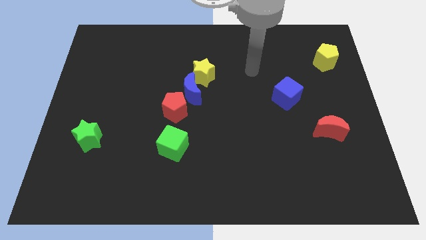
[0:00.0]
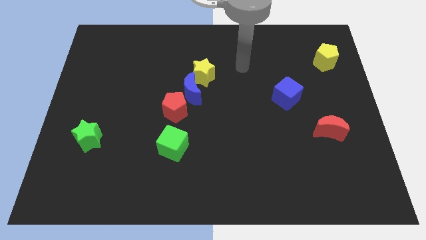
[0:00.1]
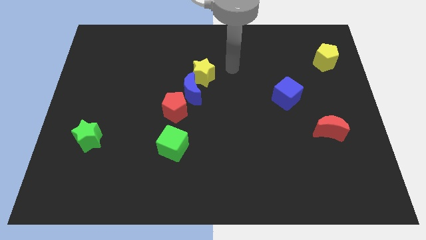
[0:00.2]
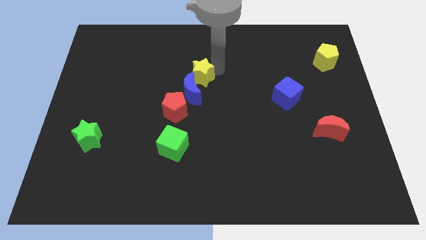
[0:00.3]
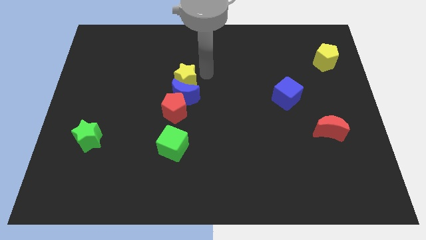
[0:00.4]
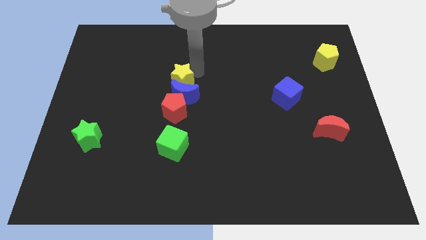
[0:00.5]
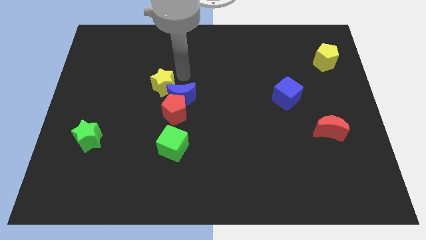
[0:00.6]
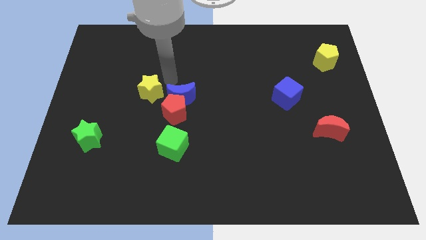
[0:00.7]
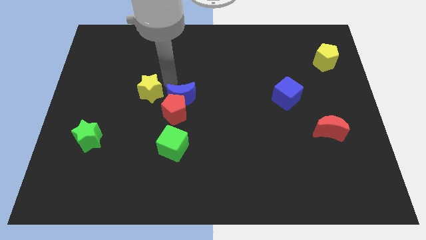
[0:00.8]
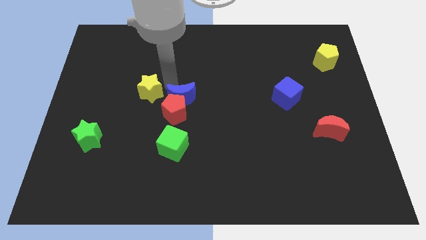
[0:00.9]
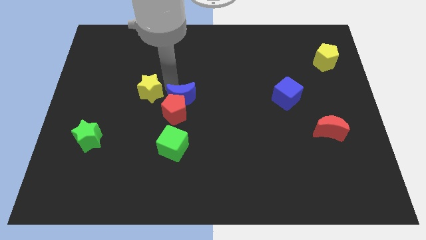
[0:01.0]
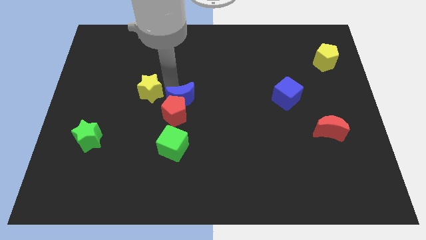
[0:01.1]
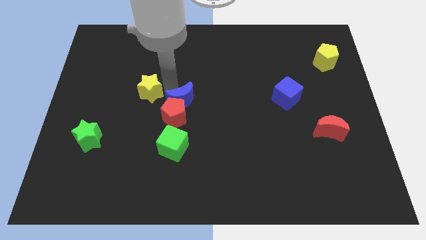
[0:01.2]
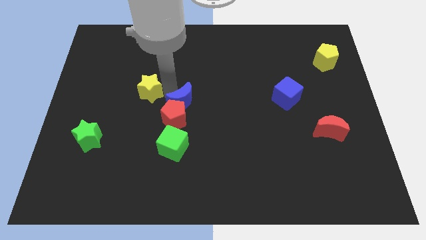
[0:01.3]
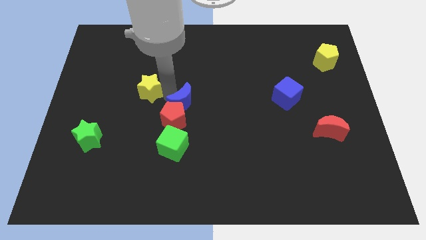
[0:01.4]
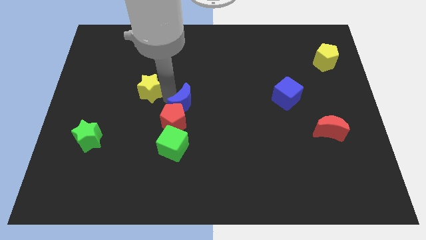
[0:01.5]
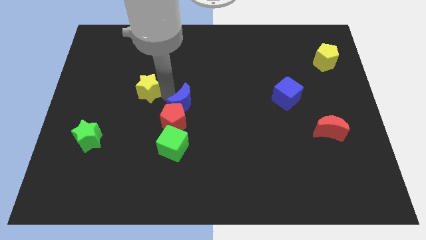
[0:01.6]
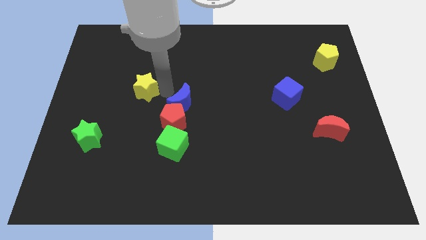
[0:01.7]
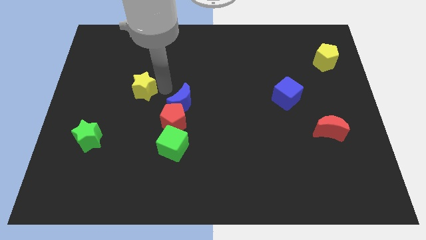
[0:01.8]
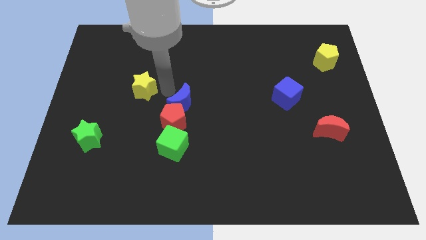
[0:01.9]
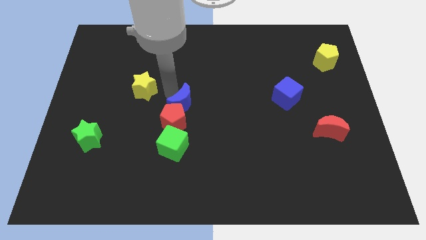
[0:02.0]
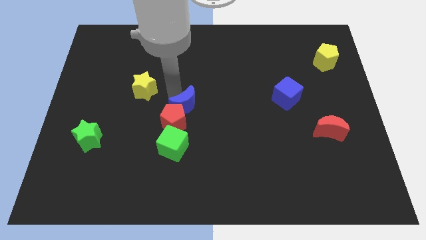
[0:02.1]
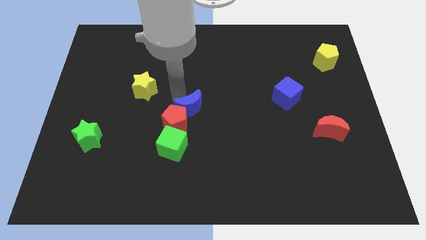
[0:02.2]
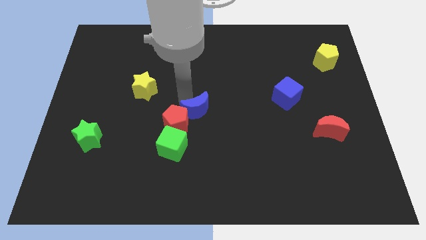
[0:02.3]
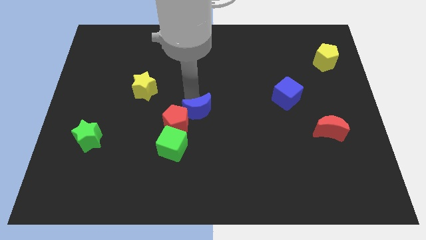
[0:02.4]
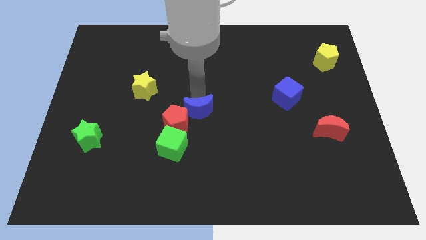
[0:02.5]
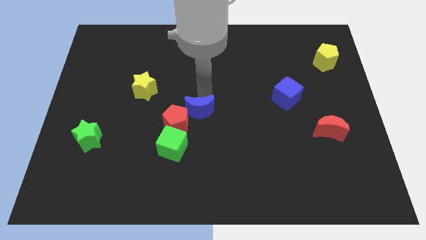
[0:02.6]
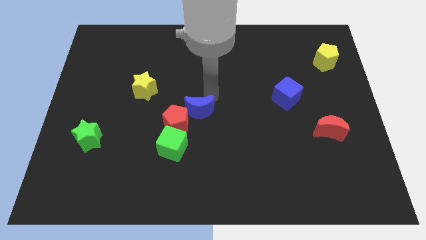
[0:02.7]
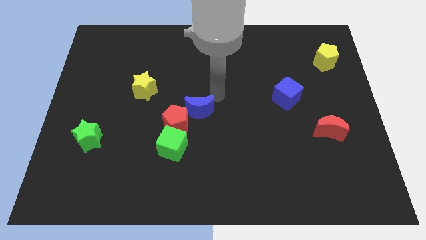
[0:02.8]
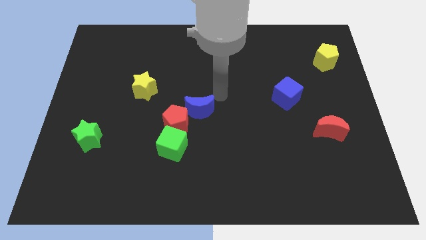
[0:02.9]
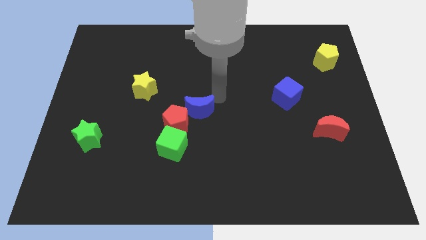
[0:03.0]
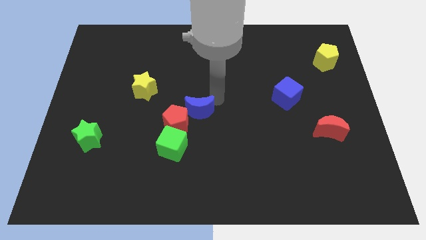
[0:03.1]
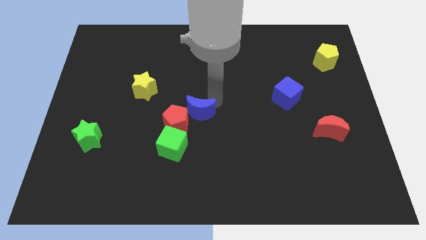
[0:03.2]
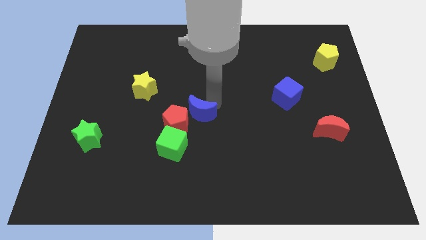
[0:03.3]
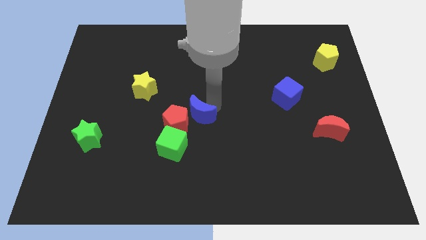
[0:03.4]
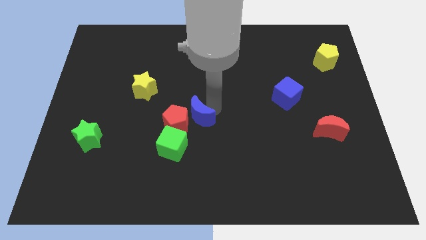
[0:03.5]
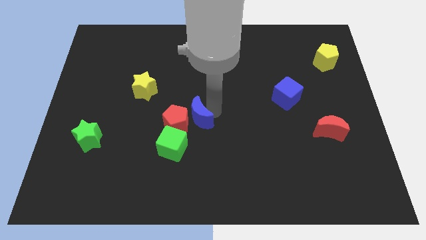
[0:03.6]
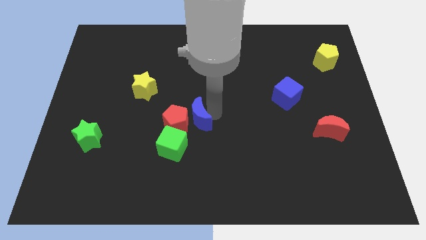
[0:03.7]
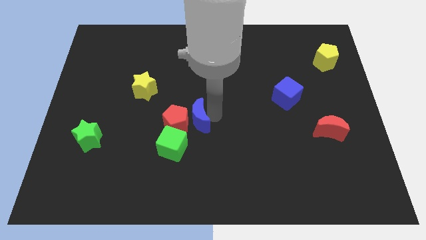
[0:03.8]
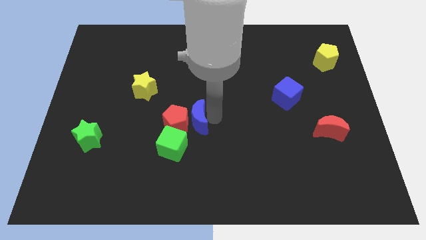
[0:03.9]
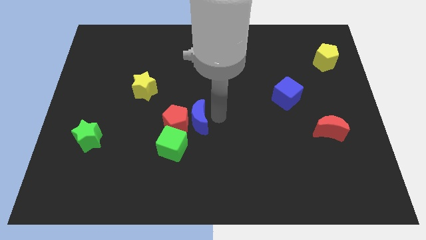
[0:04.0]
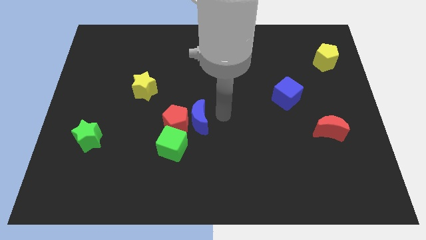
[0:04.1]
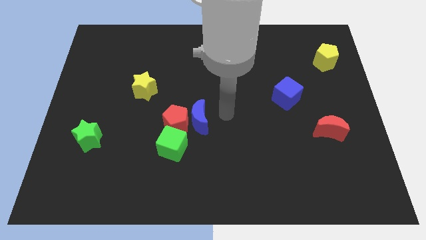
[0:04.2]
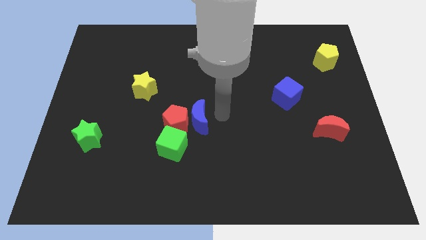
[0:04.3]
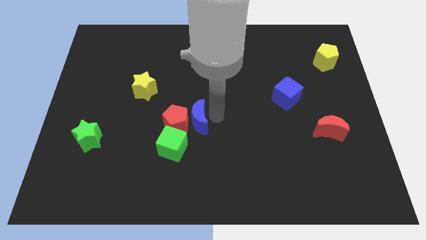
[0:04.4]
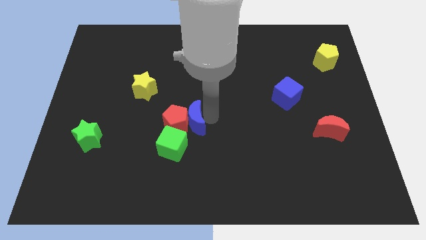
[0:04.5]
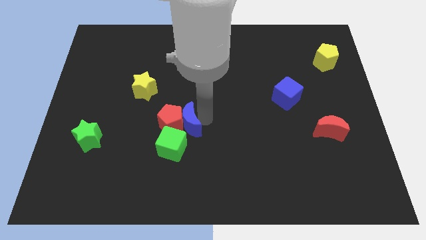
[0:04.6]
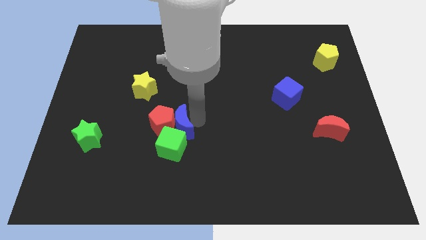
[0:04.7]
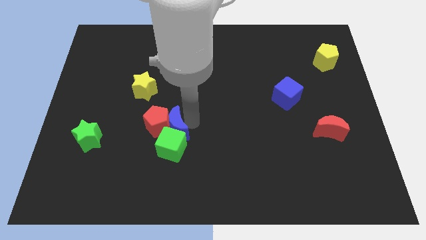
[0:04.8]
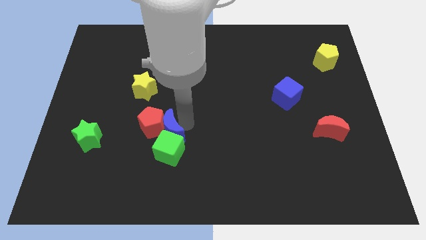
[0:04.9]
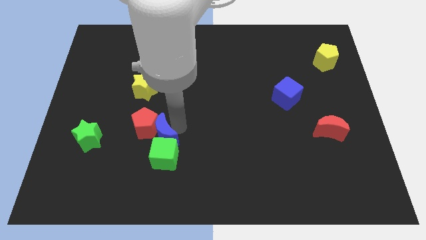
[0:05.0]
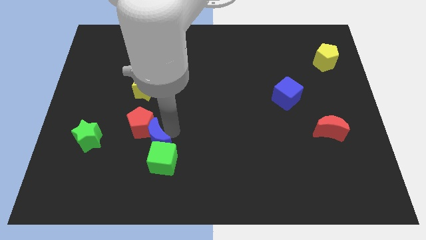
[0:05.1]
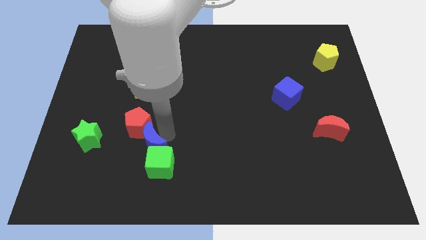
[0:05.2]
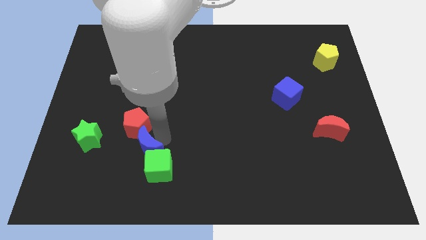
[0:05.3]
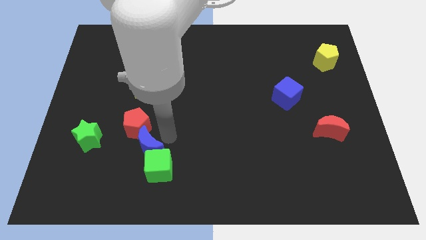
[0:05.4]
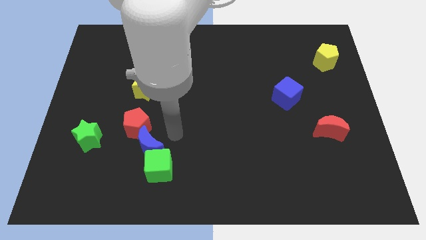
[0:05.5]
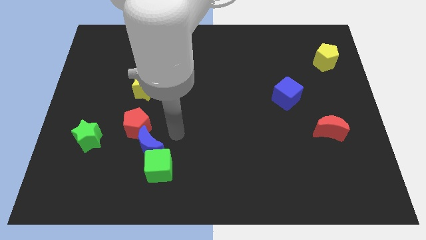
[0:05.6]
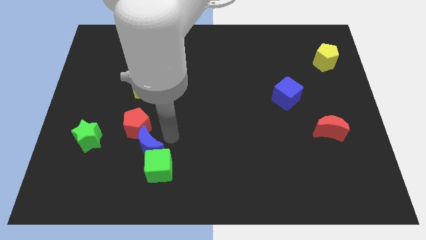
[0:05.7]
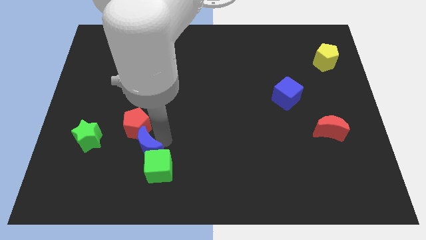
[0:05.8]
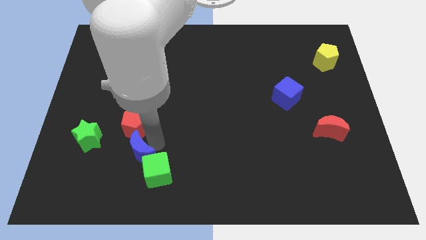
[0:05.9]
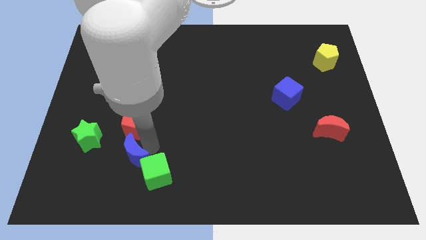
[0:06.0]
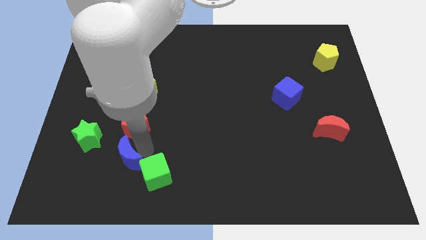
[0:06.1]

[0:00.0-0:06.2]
slide the blue moon downwards and then left

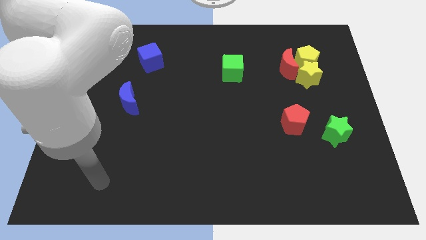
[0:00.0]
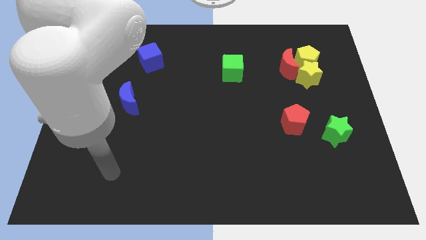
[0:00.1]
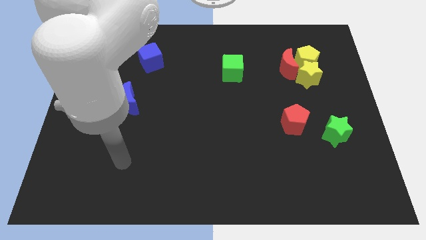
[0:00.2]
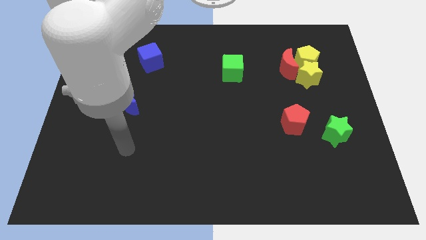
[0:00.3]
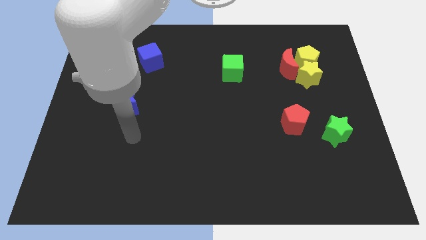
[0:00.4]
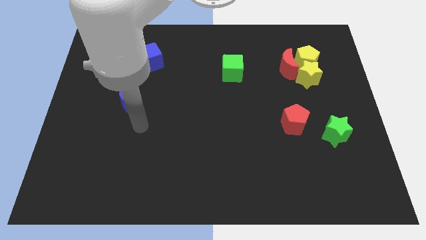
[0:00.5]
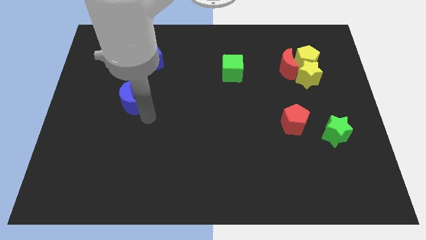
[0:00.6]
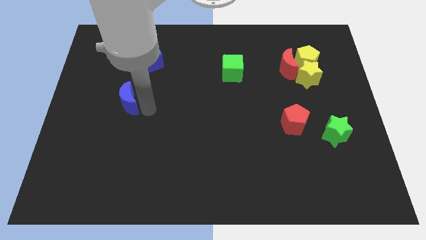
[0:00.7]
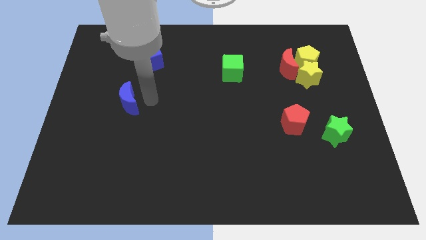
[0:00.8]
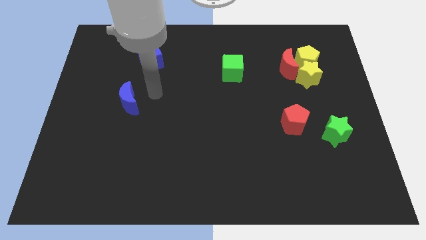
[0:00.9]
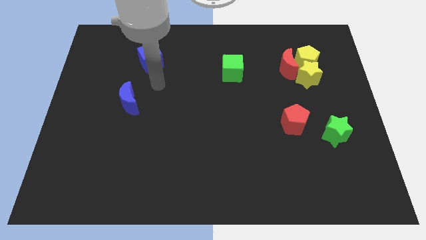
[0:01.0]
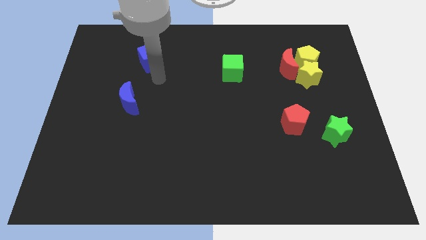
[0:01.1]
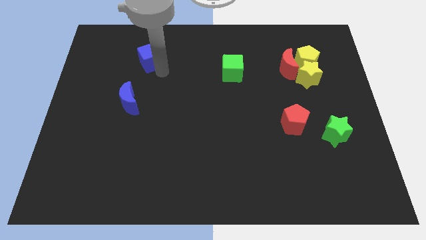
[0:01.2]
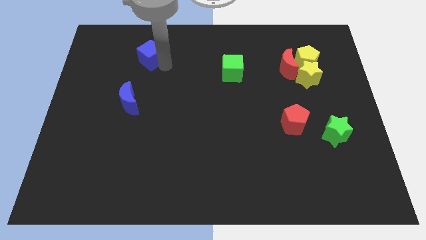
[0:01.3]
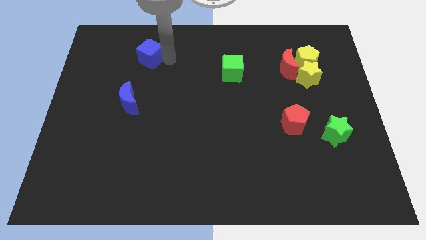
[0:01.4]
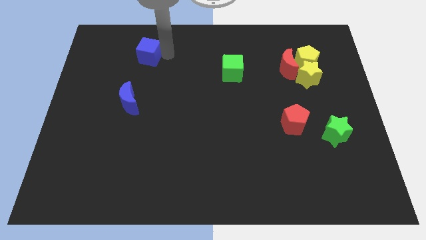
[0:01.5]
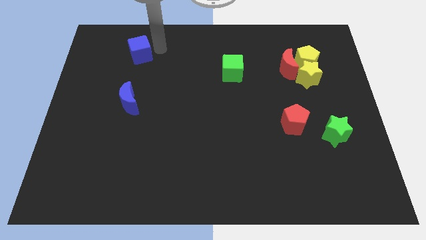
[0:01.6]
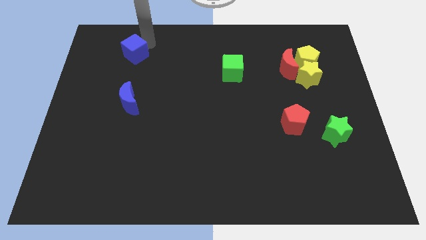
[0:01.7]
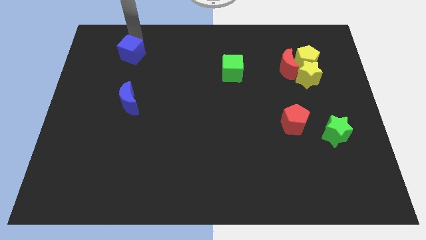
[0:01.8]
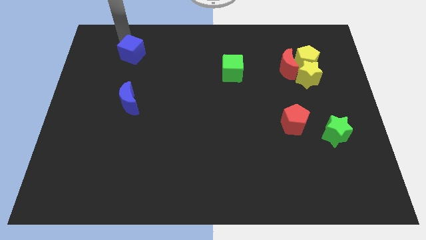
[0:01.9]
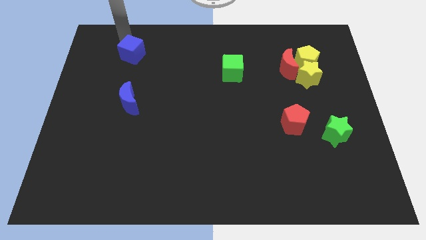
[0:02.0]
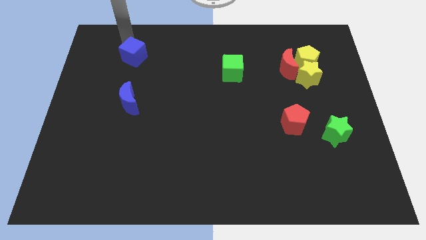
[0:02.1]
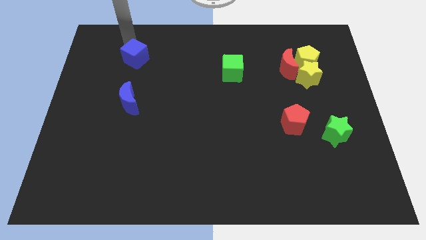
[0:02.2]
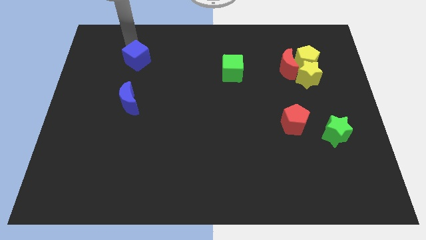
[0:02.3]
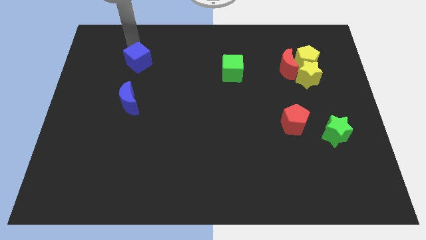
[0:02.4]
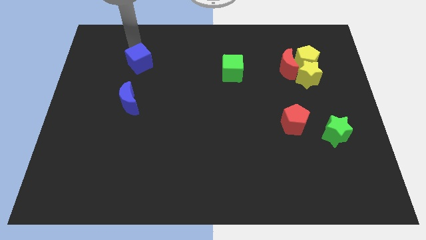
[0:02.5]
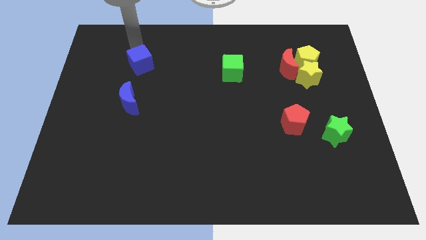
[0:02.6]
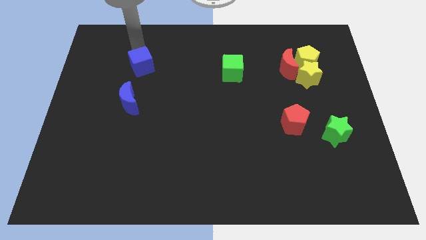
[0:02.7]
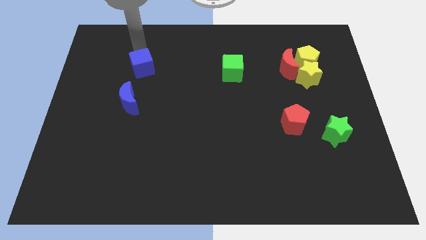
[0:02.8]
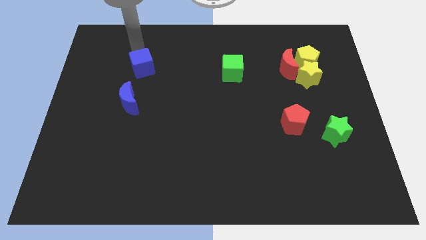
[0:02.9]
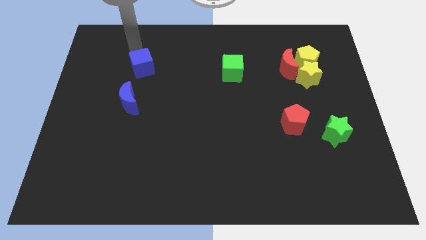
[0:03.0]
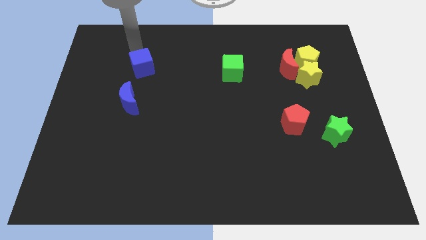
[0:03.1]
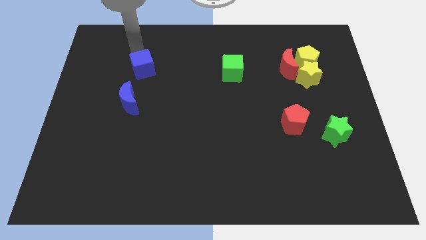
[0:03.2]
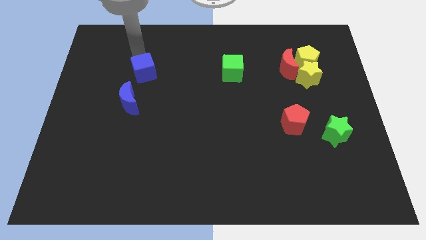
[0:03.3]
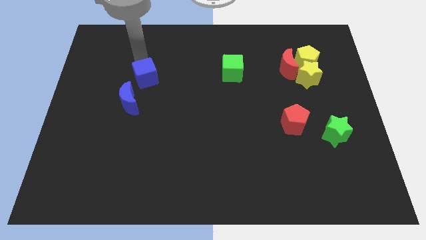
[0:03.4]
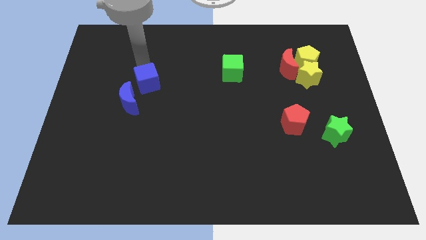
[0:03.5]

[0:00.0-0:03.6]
slightly move the blue cube down
